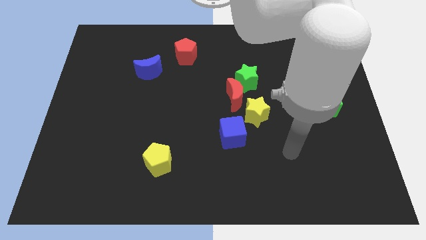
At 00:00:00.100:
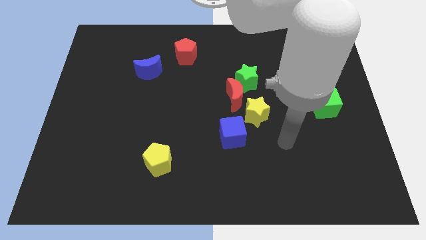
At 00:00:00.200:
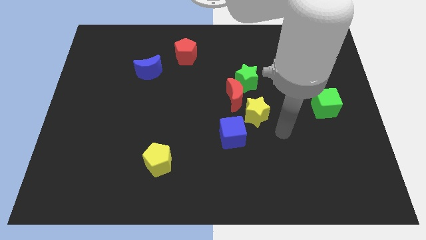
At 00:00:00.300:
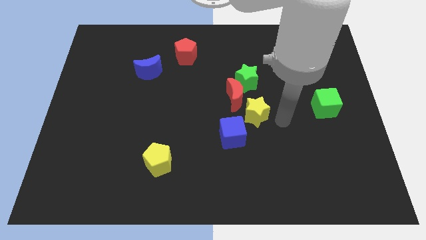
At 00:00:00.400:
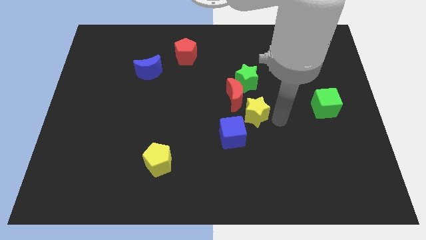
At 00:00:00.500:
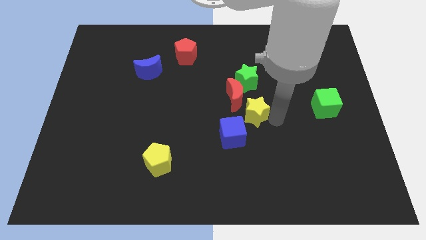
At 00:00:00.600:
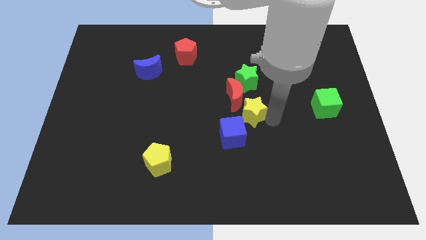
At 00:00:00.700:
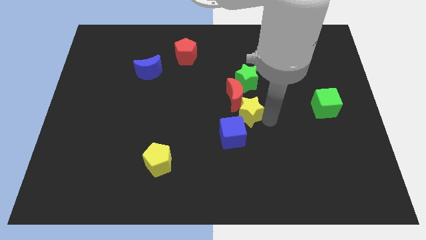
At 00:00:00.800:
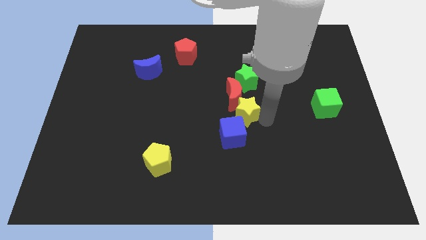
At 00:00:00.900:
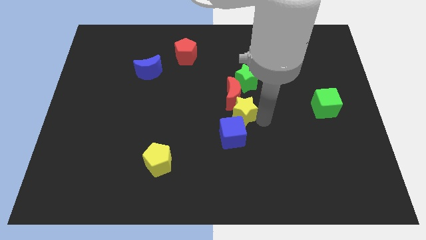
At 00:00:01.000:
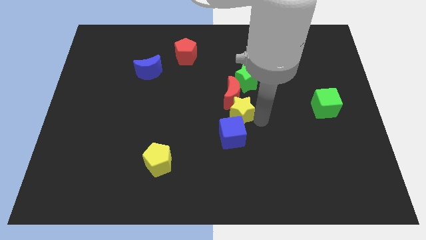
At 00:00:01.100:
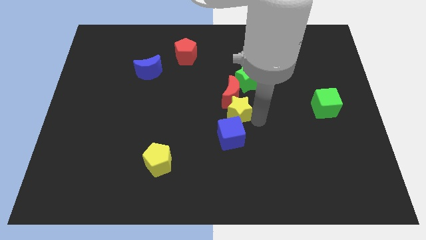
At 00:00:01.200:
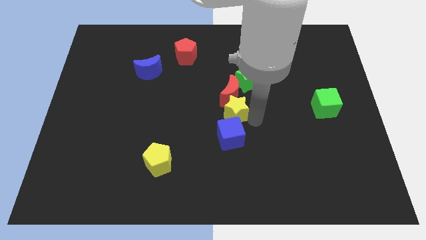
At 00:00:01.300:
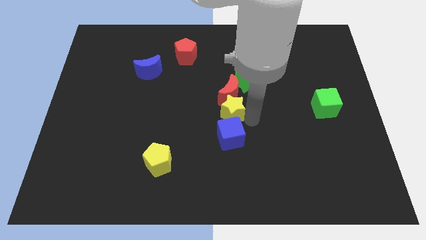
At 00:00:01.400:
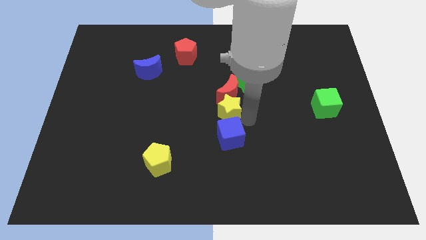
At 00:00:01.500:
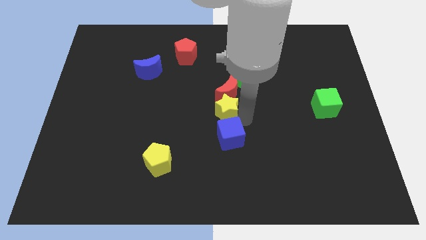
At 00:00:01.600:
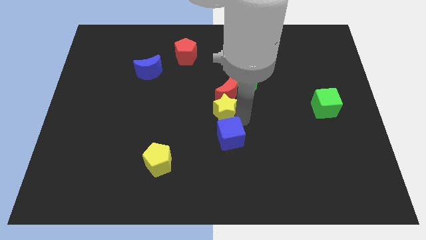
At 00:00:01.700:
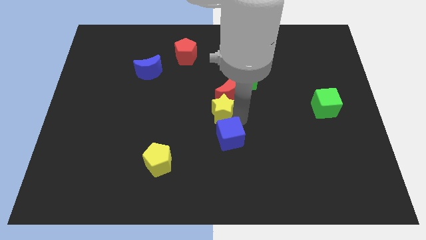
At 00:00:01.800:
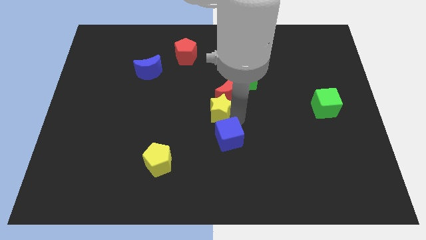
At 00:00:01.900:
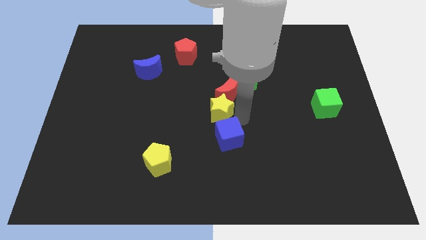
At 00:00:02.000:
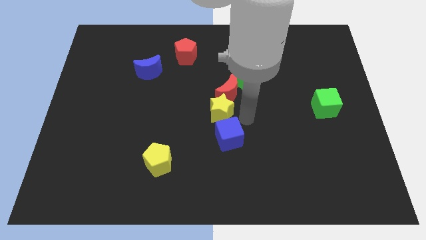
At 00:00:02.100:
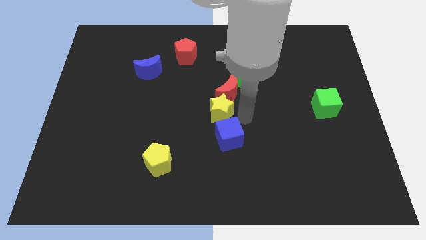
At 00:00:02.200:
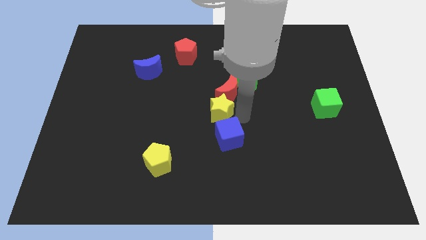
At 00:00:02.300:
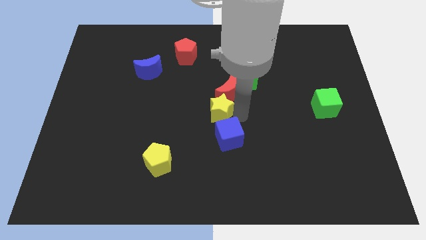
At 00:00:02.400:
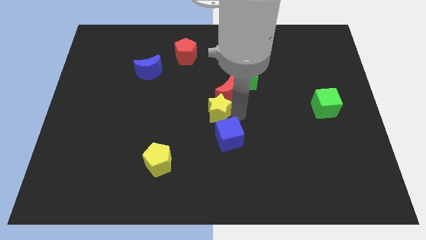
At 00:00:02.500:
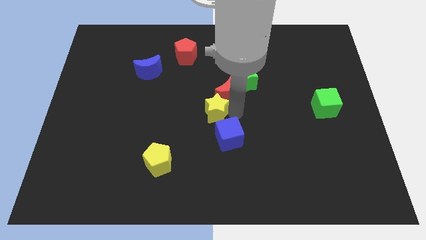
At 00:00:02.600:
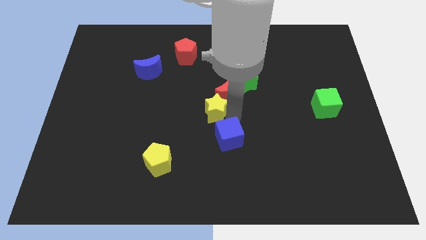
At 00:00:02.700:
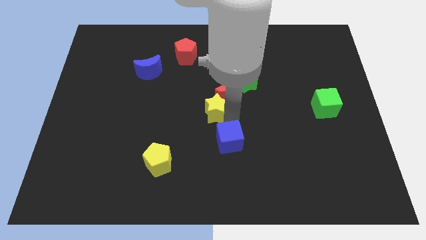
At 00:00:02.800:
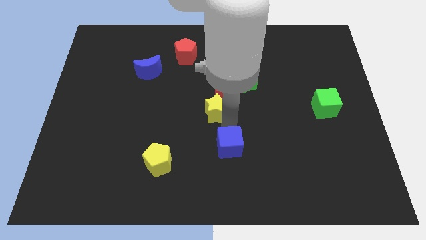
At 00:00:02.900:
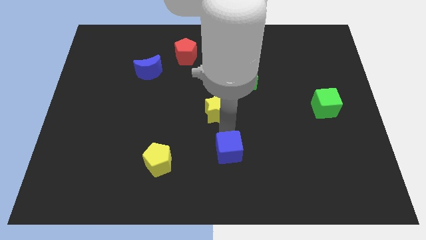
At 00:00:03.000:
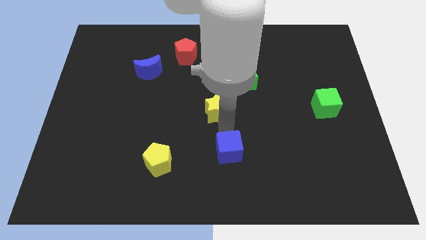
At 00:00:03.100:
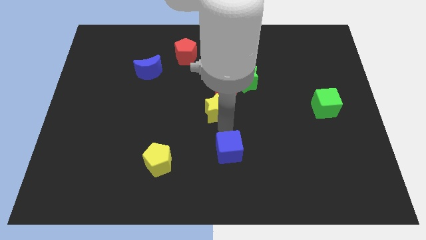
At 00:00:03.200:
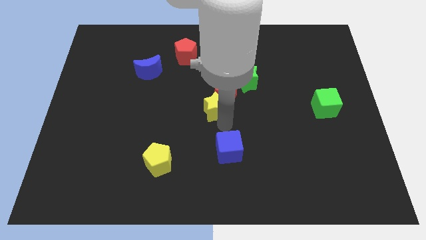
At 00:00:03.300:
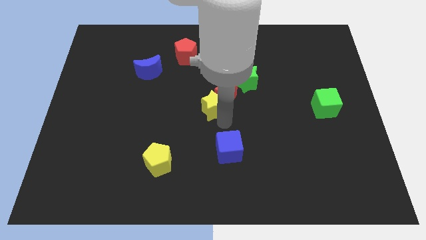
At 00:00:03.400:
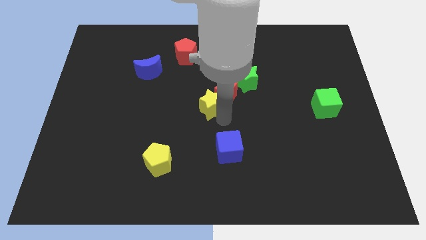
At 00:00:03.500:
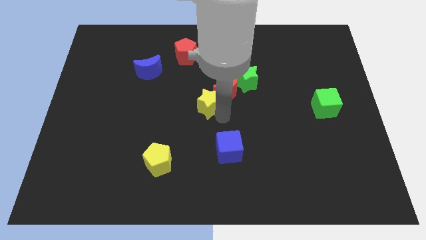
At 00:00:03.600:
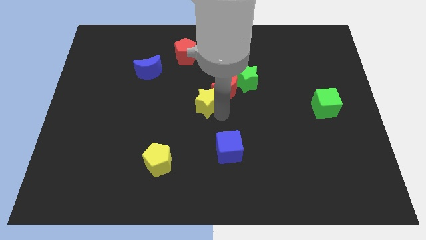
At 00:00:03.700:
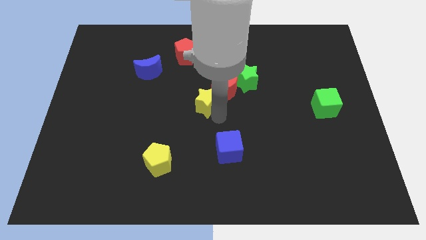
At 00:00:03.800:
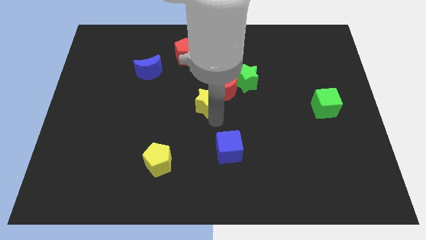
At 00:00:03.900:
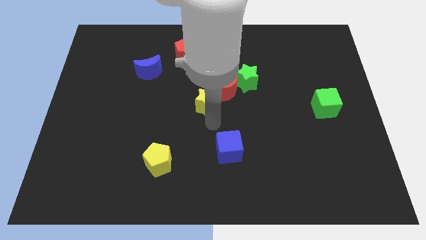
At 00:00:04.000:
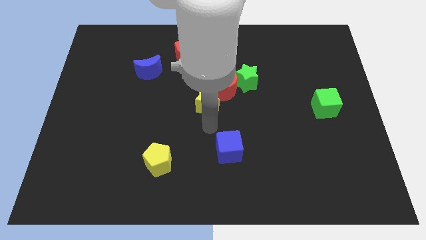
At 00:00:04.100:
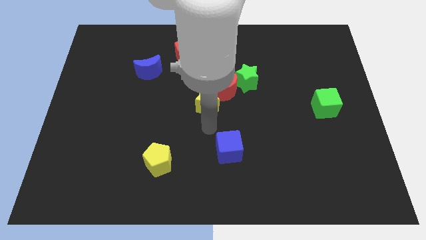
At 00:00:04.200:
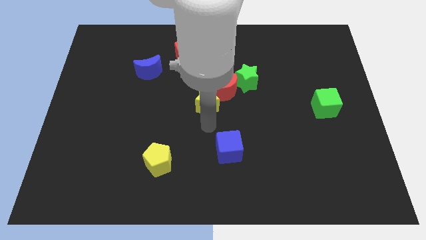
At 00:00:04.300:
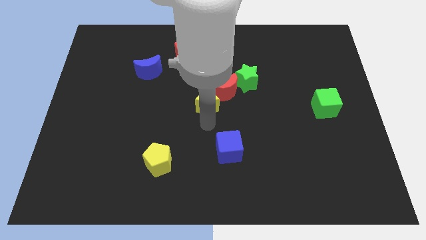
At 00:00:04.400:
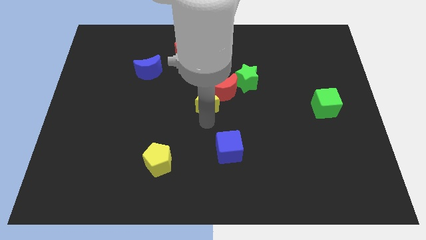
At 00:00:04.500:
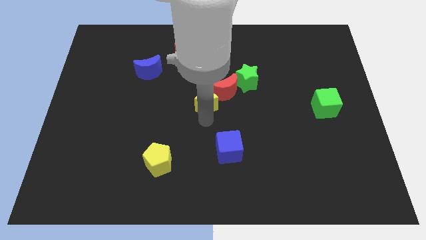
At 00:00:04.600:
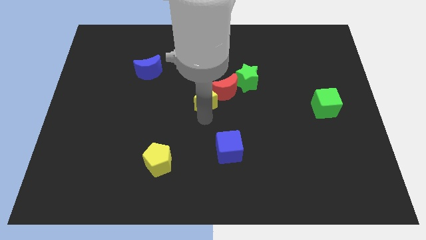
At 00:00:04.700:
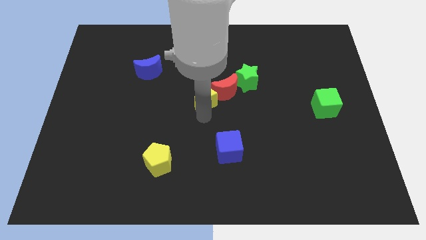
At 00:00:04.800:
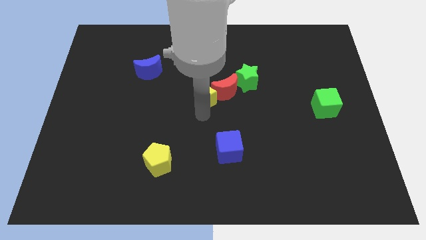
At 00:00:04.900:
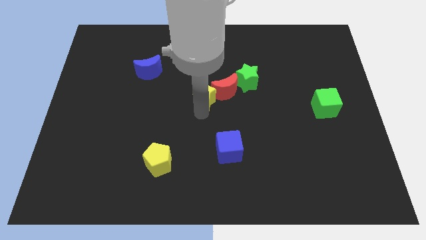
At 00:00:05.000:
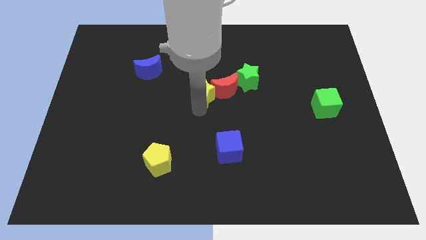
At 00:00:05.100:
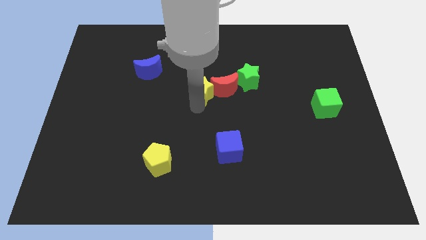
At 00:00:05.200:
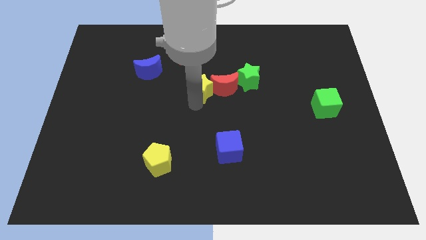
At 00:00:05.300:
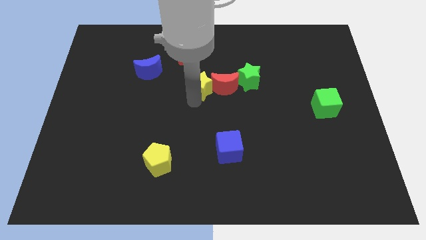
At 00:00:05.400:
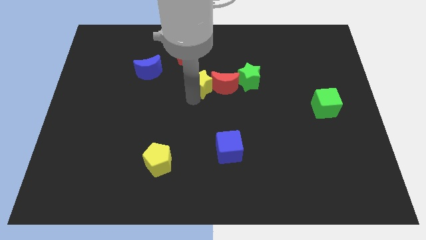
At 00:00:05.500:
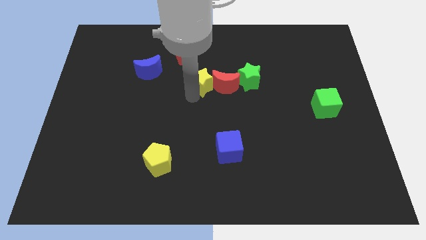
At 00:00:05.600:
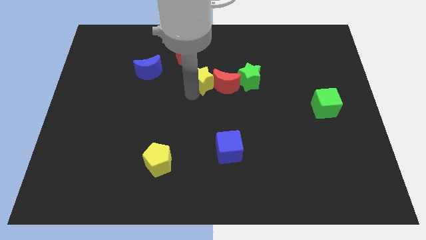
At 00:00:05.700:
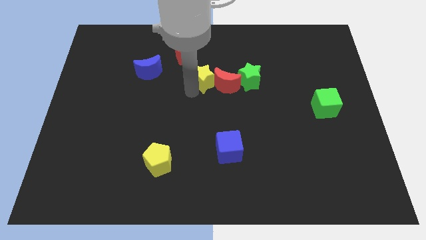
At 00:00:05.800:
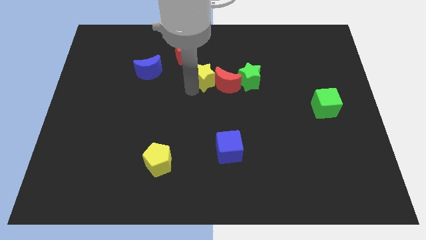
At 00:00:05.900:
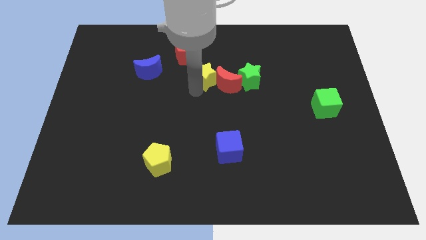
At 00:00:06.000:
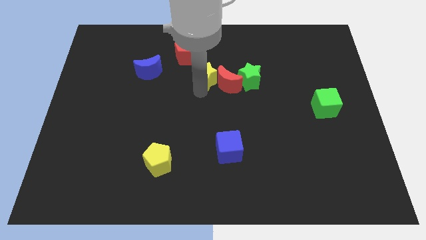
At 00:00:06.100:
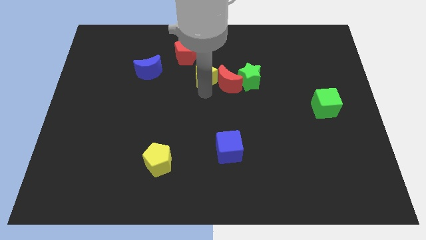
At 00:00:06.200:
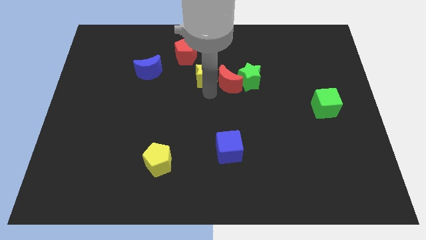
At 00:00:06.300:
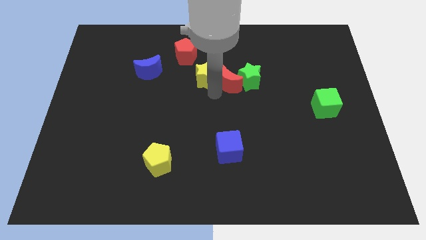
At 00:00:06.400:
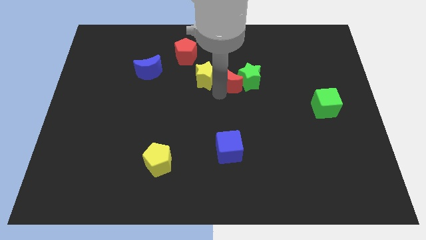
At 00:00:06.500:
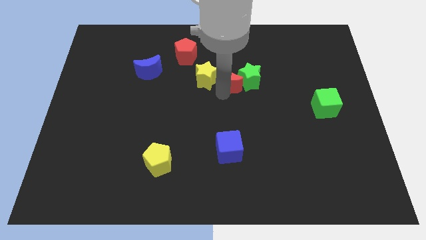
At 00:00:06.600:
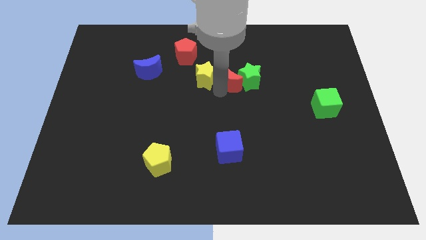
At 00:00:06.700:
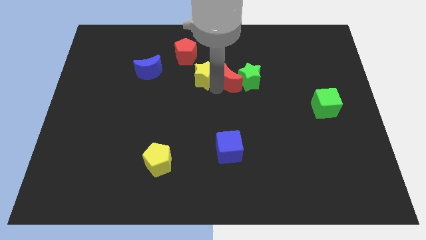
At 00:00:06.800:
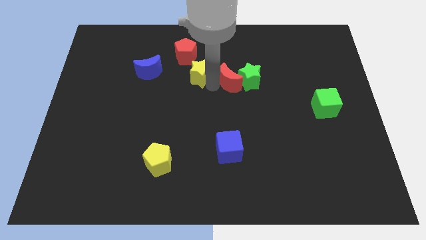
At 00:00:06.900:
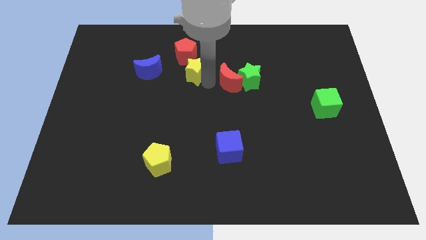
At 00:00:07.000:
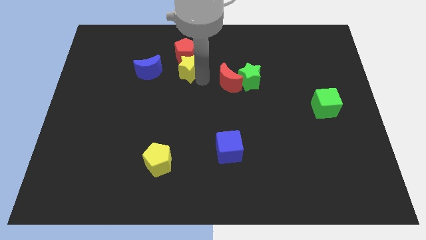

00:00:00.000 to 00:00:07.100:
push the yellow star towards the red pentagon

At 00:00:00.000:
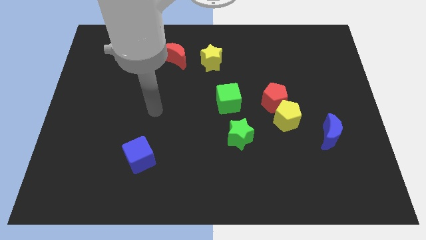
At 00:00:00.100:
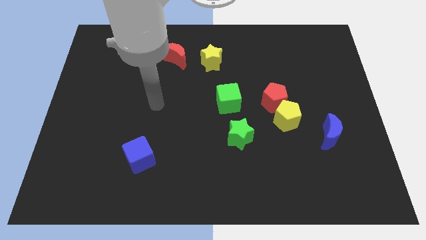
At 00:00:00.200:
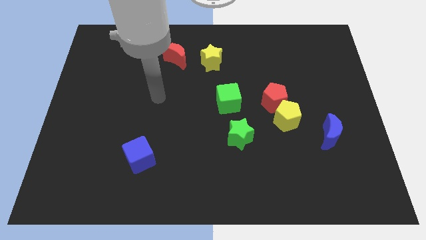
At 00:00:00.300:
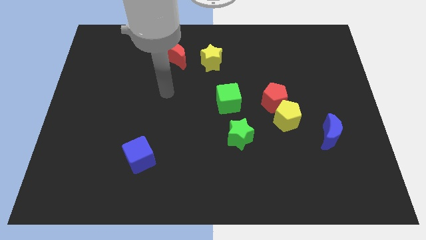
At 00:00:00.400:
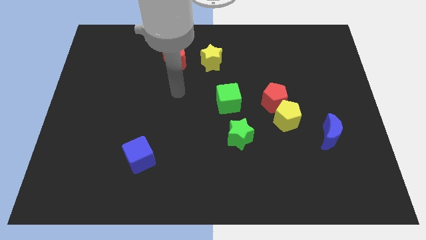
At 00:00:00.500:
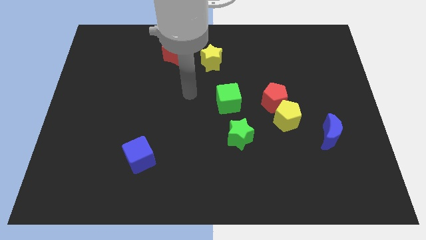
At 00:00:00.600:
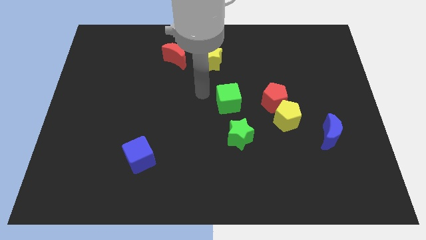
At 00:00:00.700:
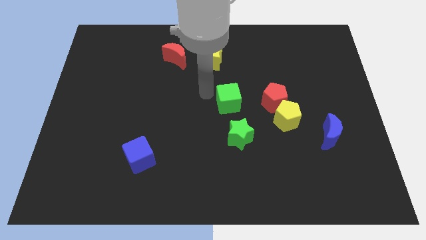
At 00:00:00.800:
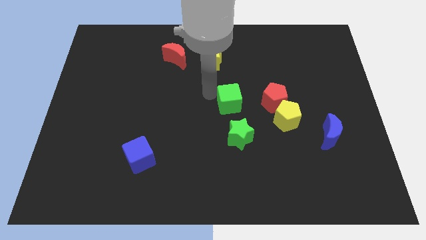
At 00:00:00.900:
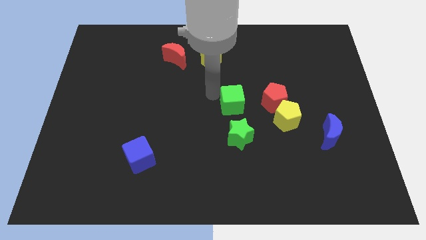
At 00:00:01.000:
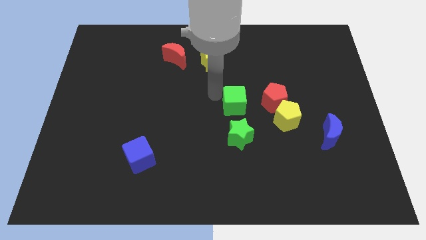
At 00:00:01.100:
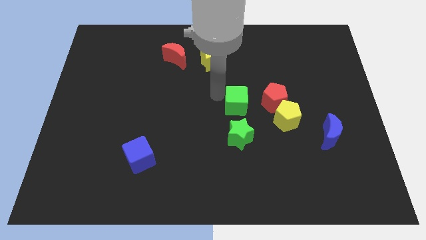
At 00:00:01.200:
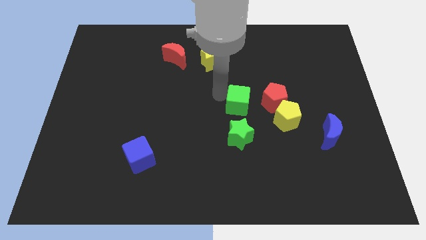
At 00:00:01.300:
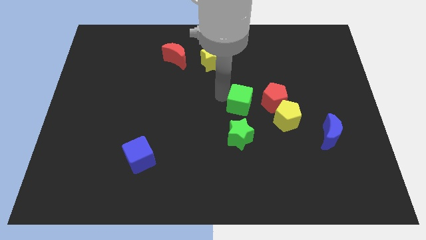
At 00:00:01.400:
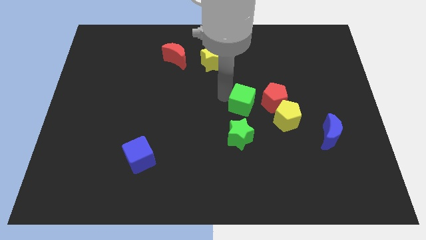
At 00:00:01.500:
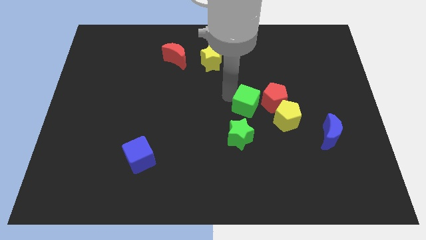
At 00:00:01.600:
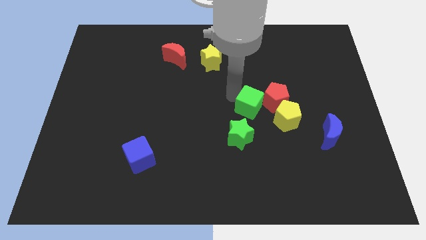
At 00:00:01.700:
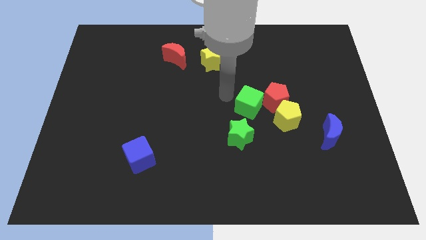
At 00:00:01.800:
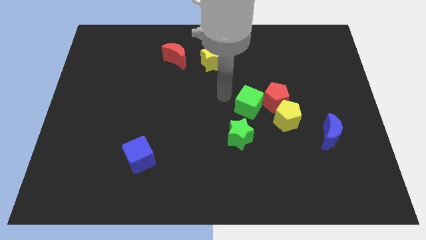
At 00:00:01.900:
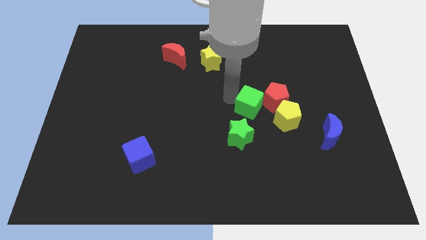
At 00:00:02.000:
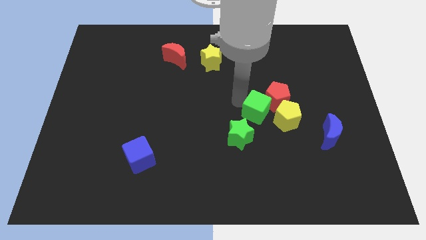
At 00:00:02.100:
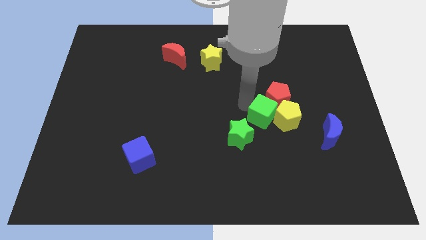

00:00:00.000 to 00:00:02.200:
move the green cube next to the yellow pentagon
